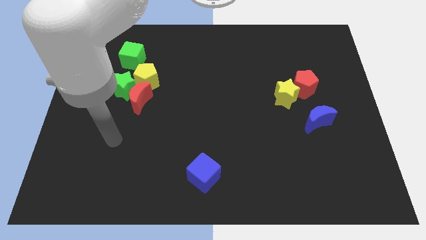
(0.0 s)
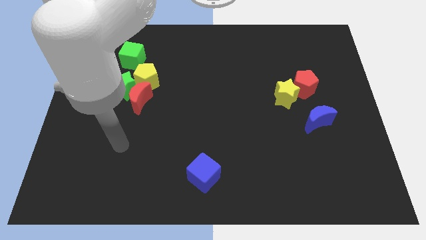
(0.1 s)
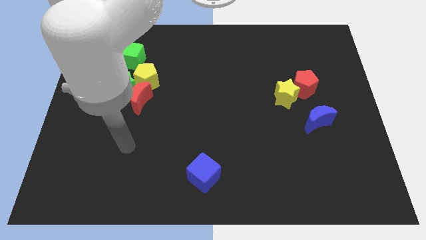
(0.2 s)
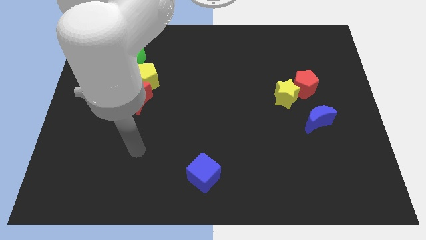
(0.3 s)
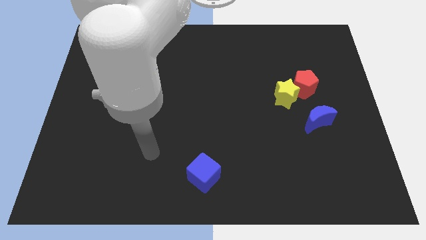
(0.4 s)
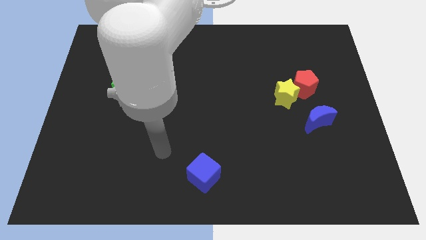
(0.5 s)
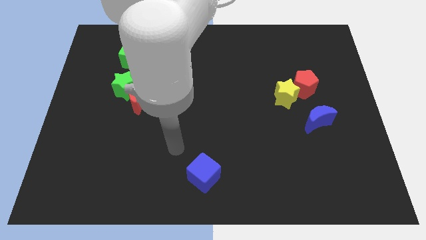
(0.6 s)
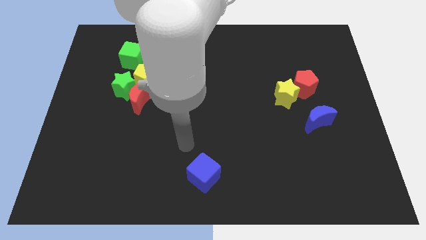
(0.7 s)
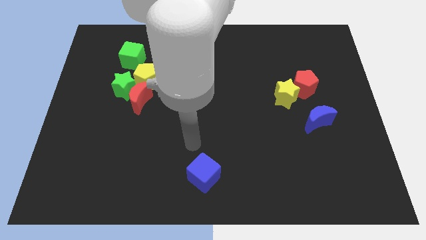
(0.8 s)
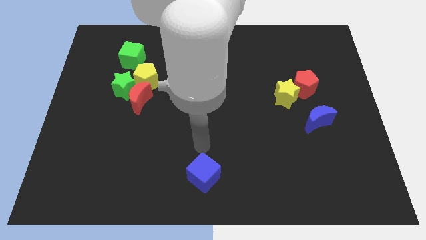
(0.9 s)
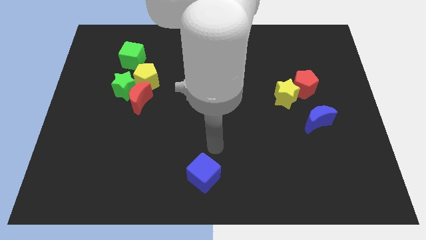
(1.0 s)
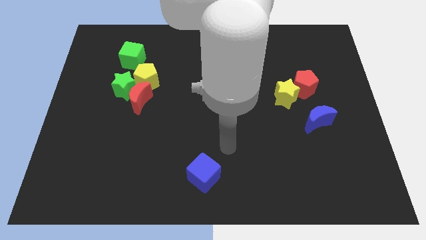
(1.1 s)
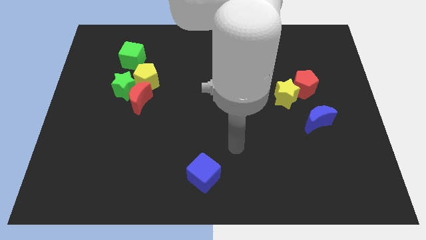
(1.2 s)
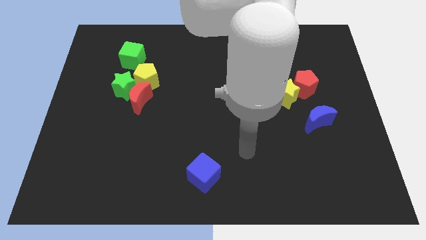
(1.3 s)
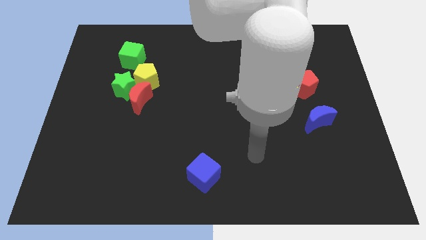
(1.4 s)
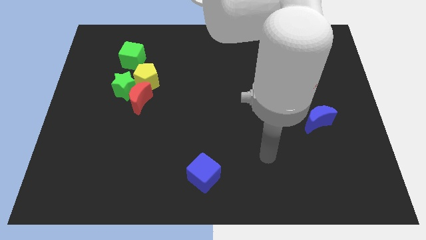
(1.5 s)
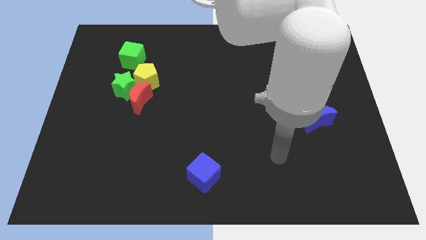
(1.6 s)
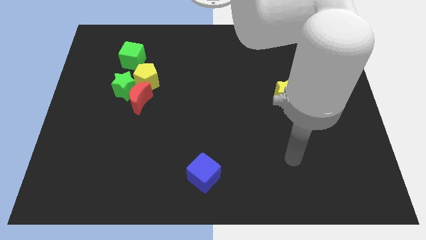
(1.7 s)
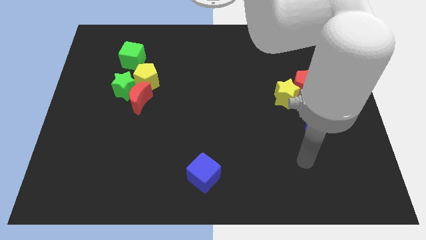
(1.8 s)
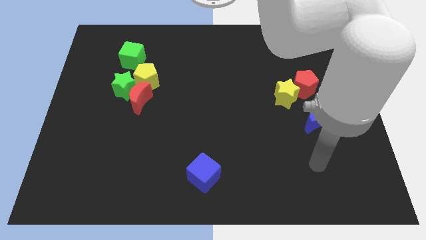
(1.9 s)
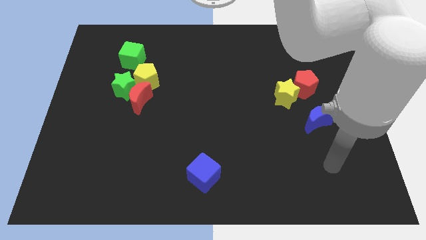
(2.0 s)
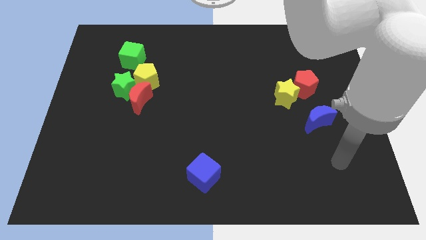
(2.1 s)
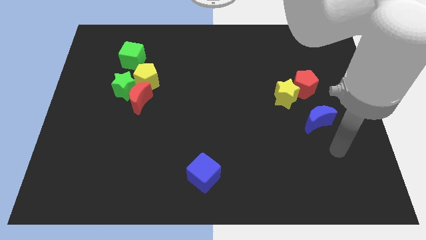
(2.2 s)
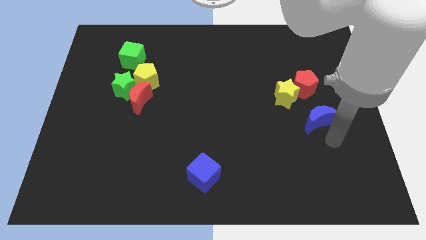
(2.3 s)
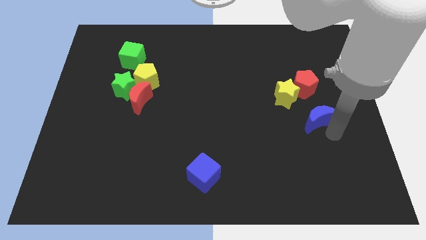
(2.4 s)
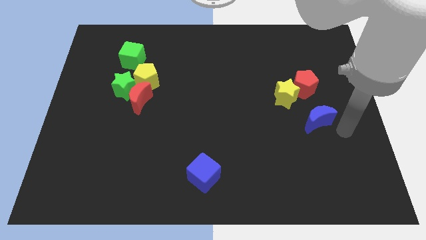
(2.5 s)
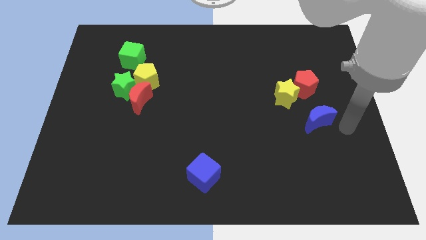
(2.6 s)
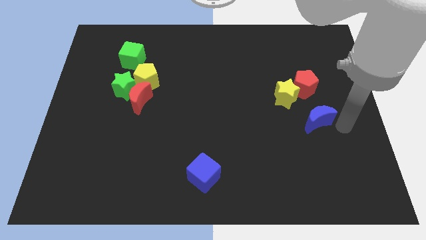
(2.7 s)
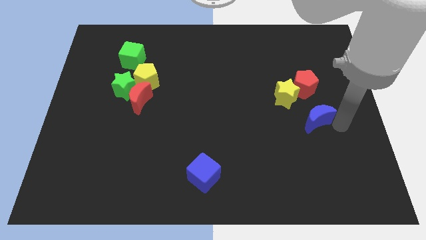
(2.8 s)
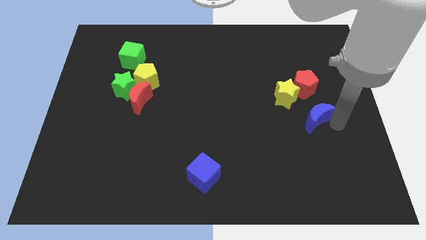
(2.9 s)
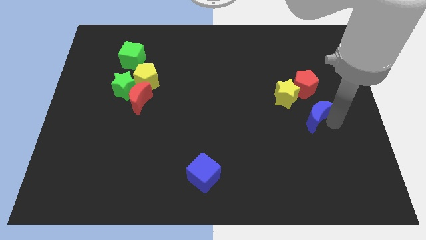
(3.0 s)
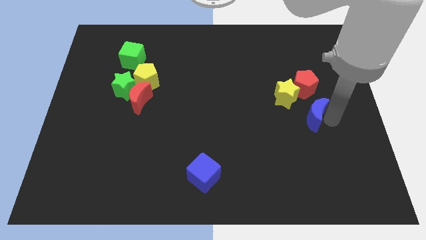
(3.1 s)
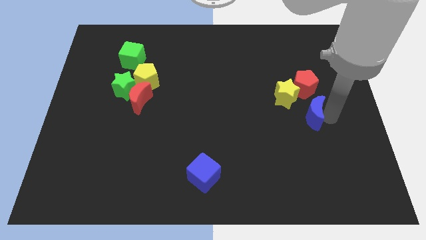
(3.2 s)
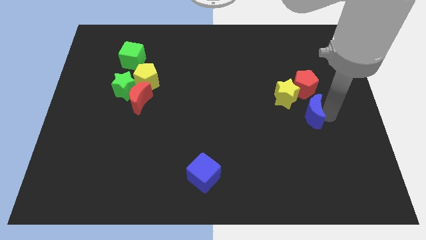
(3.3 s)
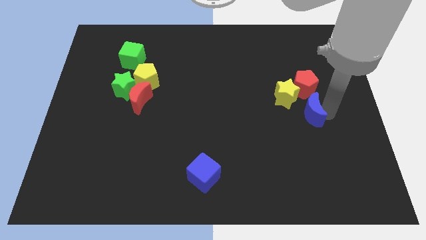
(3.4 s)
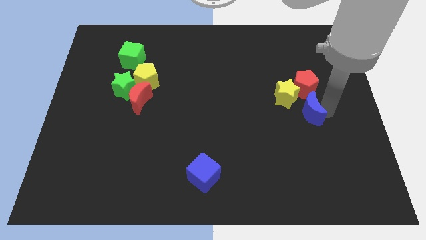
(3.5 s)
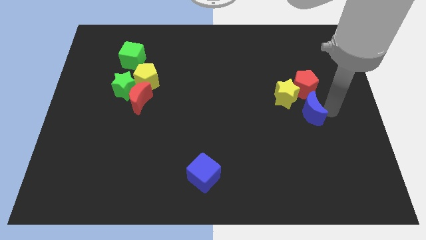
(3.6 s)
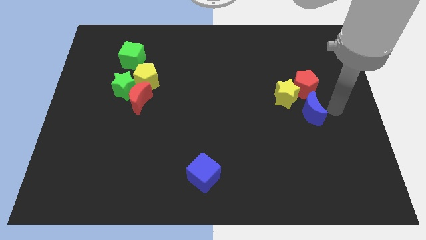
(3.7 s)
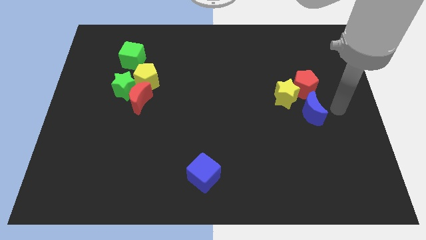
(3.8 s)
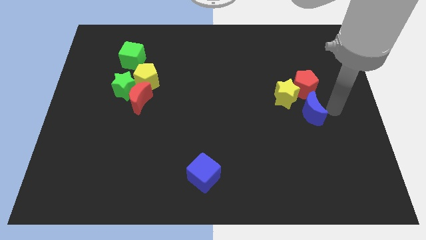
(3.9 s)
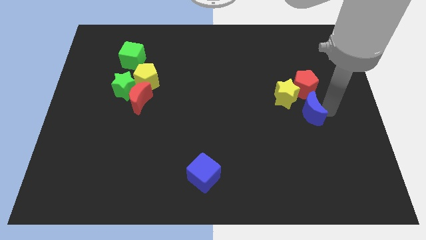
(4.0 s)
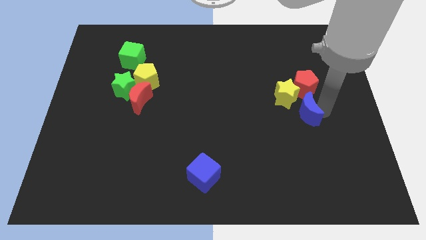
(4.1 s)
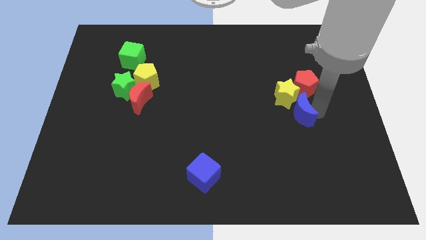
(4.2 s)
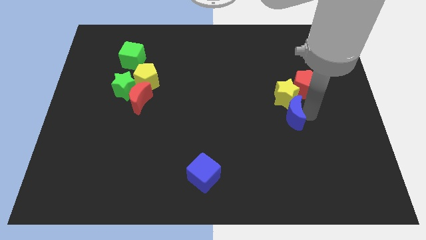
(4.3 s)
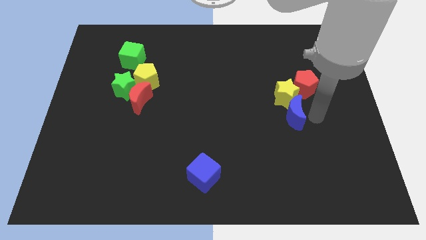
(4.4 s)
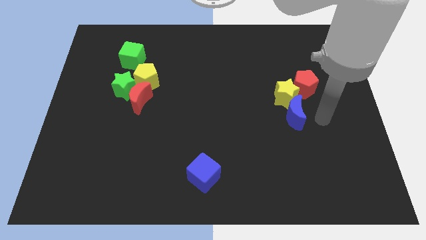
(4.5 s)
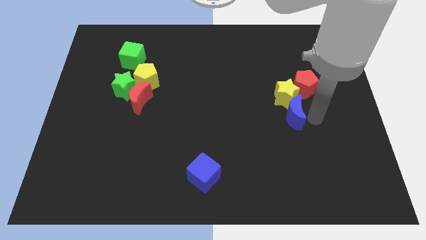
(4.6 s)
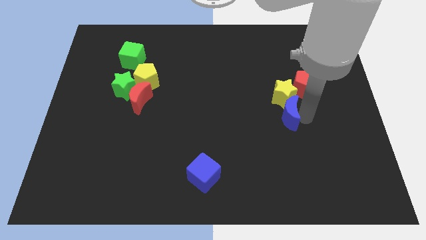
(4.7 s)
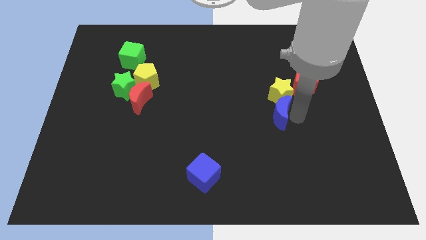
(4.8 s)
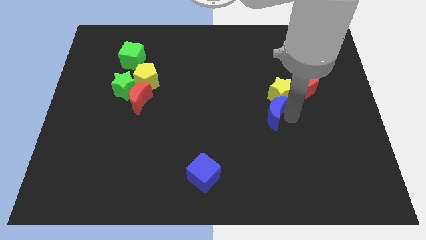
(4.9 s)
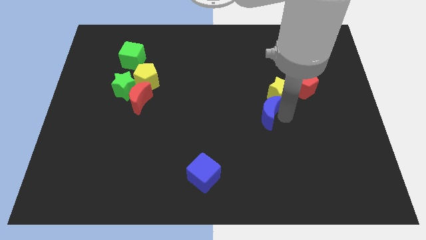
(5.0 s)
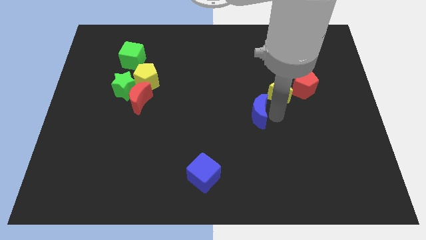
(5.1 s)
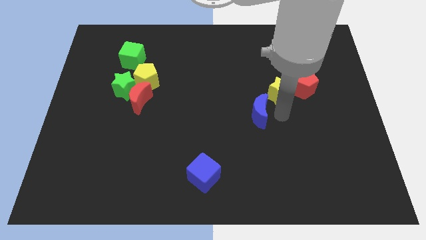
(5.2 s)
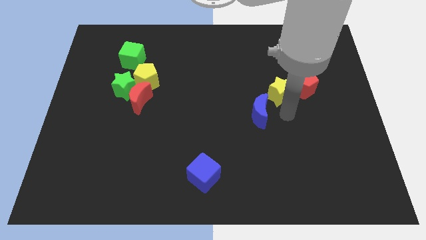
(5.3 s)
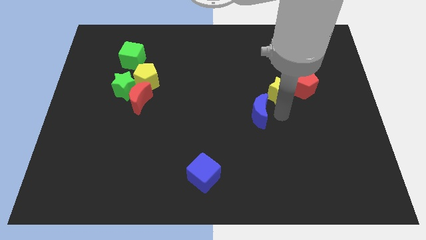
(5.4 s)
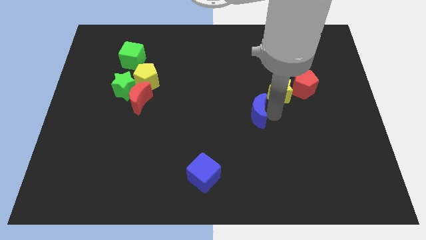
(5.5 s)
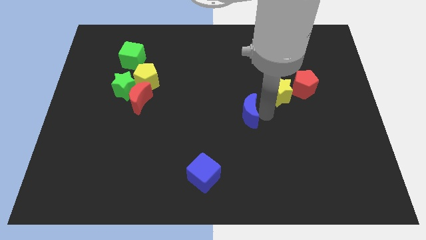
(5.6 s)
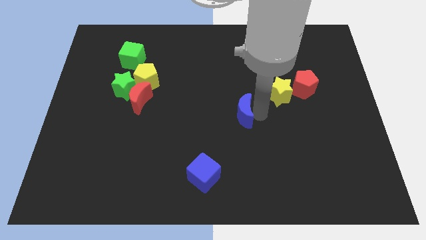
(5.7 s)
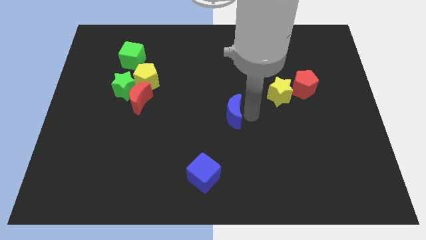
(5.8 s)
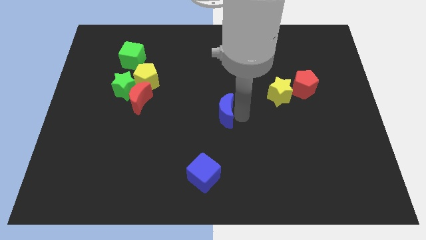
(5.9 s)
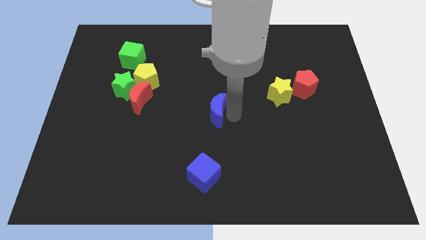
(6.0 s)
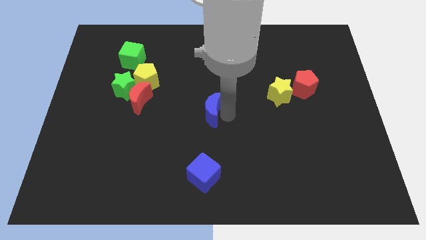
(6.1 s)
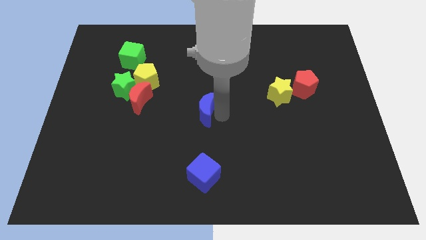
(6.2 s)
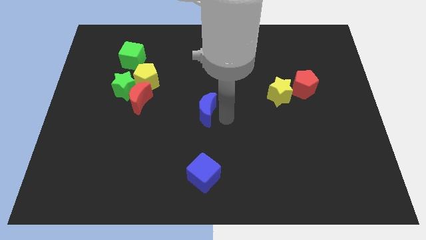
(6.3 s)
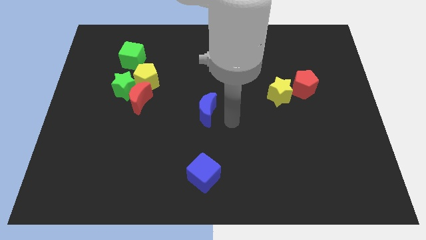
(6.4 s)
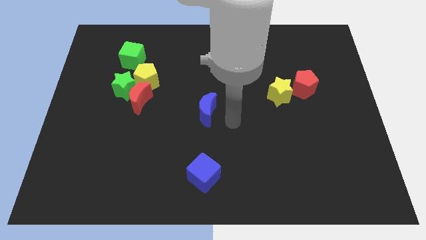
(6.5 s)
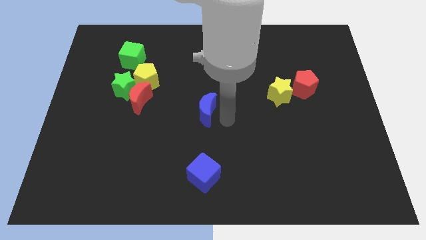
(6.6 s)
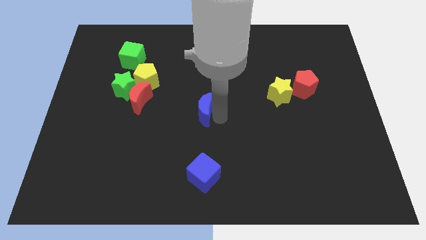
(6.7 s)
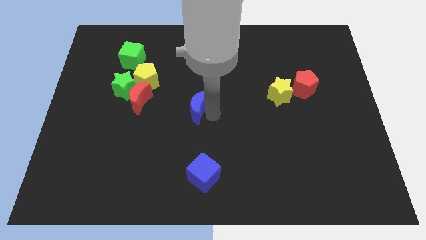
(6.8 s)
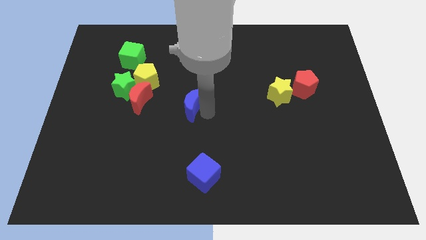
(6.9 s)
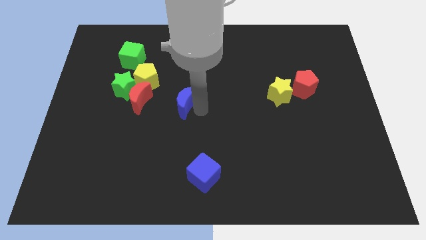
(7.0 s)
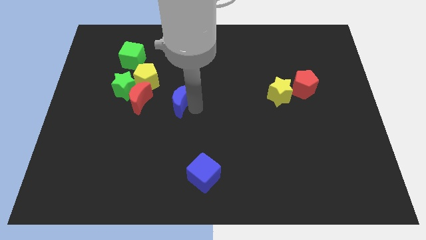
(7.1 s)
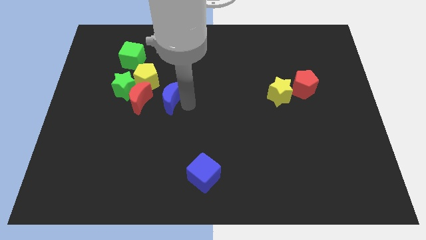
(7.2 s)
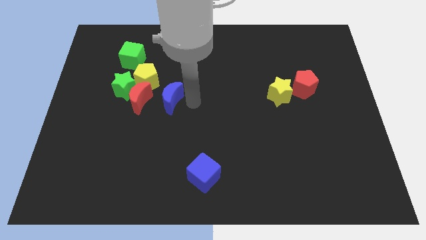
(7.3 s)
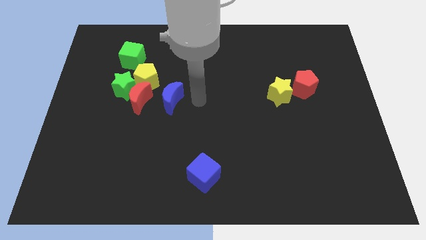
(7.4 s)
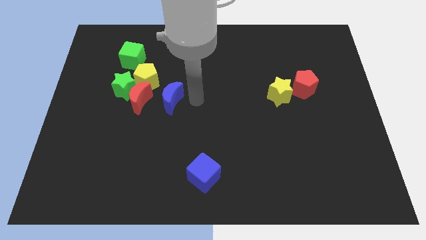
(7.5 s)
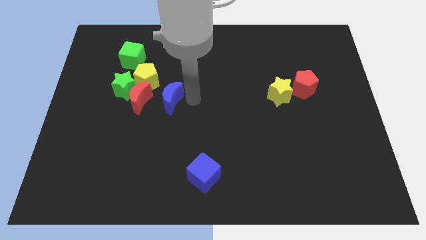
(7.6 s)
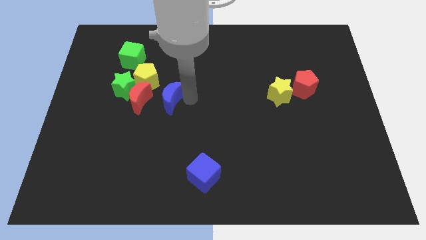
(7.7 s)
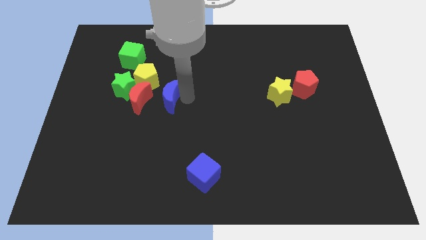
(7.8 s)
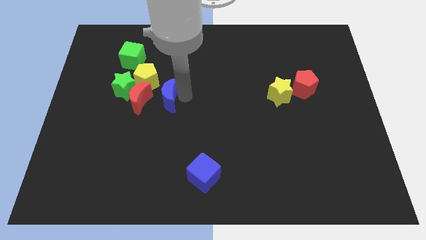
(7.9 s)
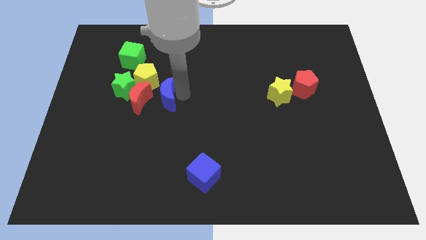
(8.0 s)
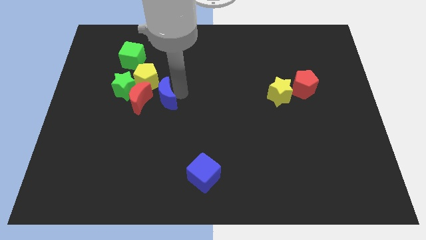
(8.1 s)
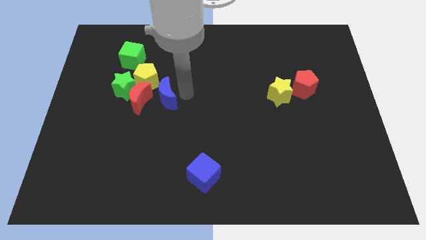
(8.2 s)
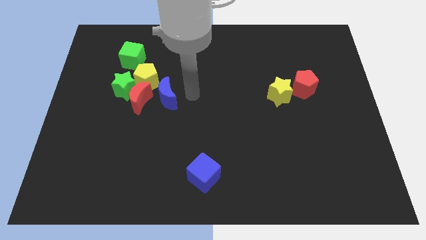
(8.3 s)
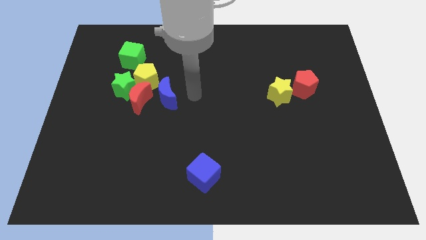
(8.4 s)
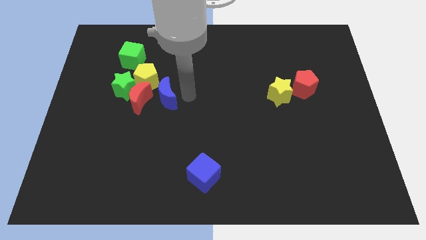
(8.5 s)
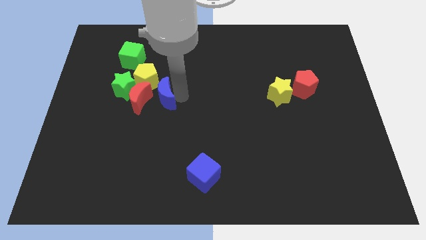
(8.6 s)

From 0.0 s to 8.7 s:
put the blue moon to the red moon
